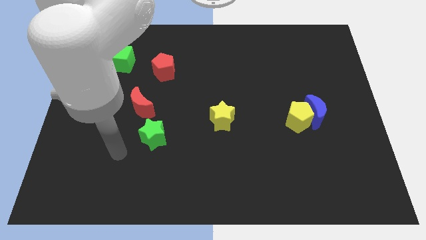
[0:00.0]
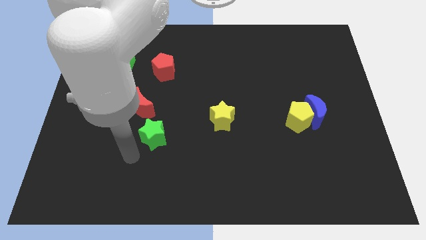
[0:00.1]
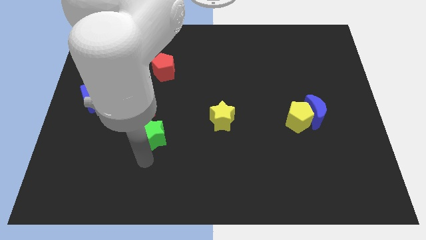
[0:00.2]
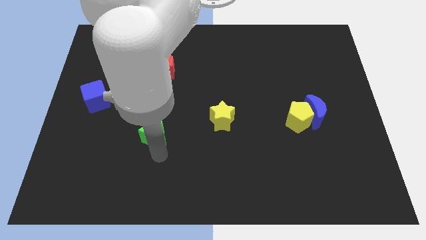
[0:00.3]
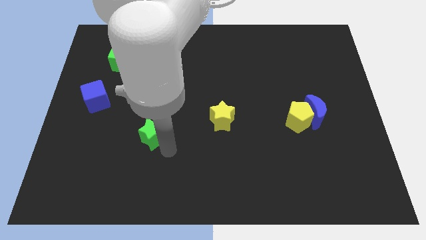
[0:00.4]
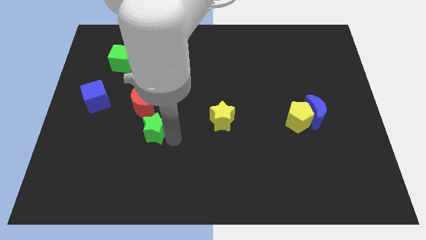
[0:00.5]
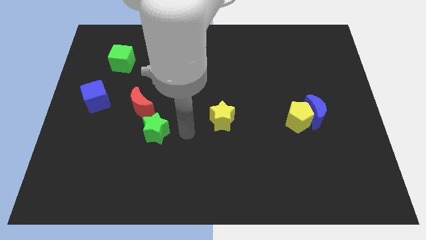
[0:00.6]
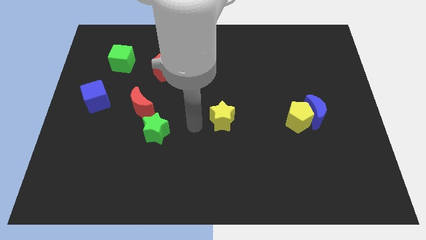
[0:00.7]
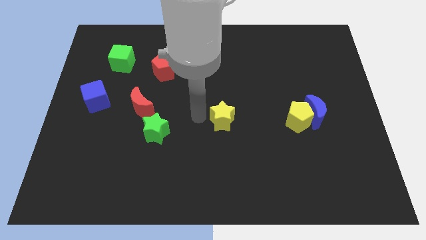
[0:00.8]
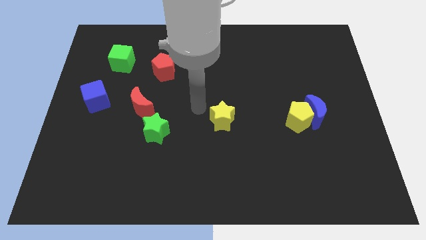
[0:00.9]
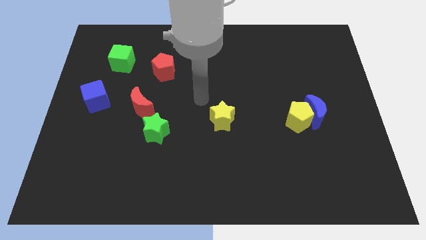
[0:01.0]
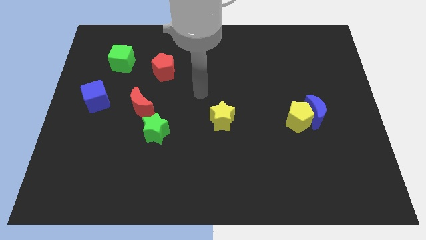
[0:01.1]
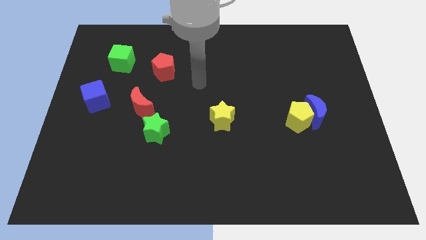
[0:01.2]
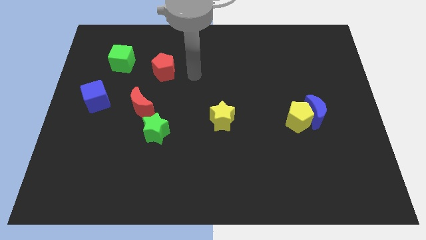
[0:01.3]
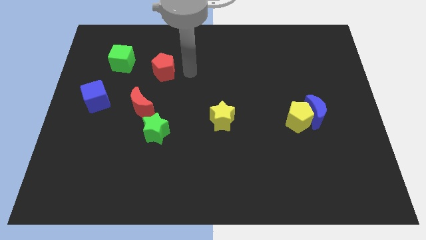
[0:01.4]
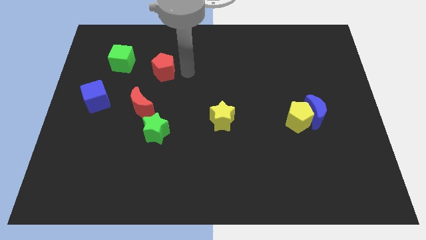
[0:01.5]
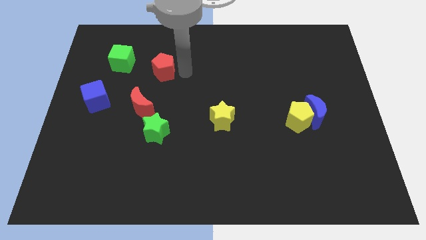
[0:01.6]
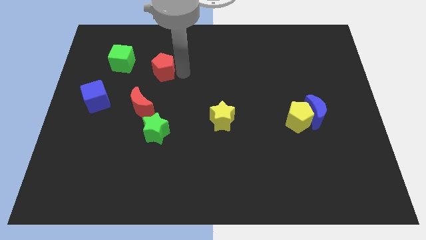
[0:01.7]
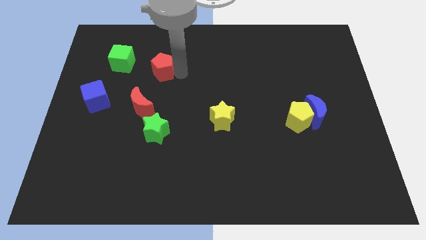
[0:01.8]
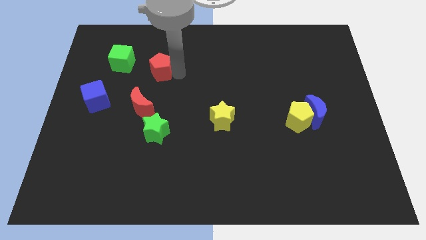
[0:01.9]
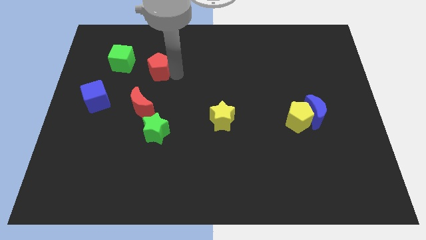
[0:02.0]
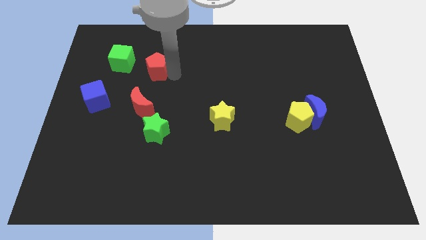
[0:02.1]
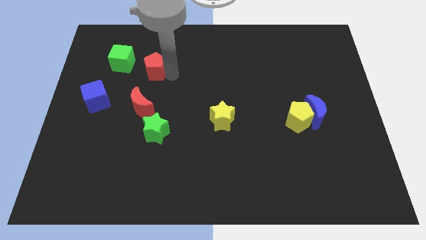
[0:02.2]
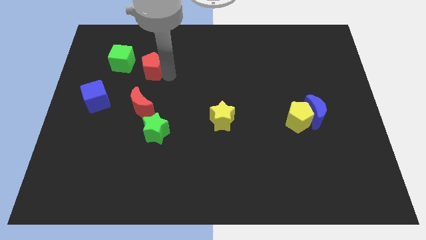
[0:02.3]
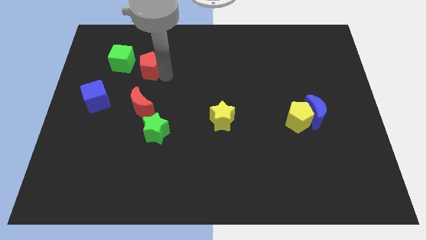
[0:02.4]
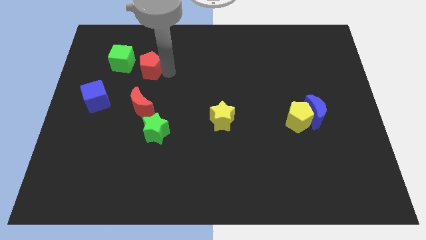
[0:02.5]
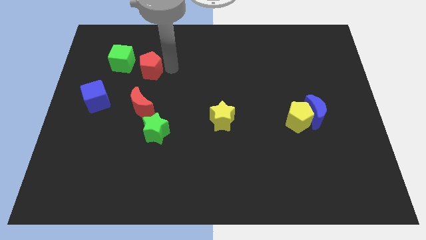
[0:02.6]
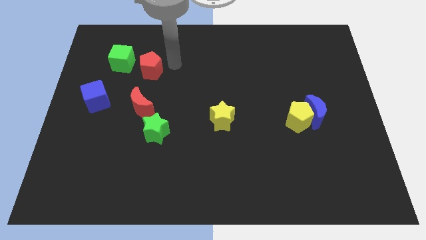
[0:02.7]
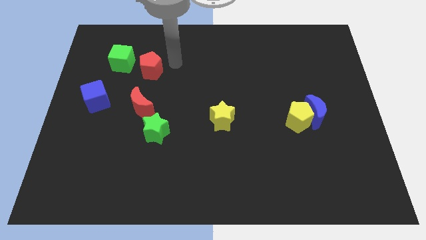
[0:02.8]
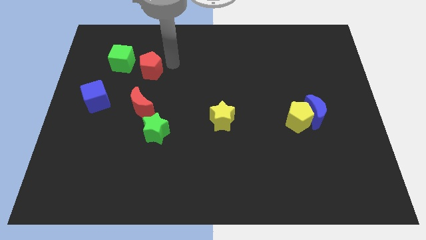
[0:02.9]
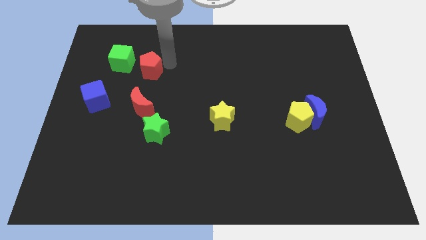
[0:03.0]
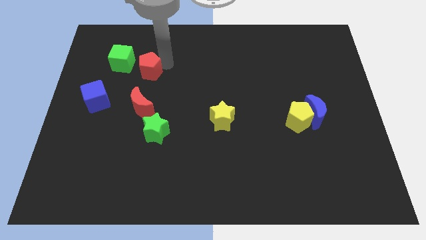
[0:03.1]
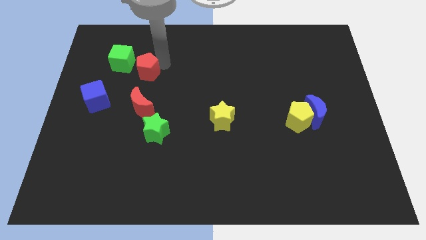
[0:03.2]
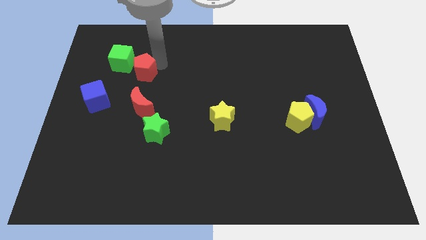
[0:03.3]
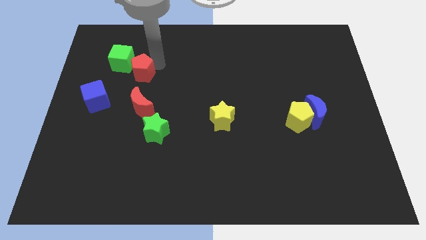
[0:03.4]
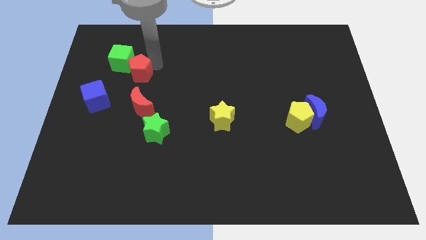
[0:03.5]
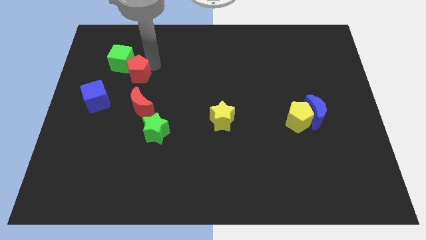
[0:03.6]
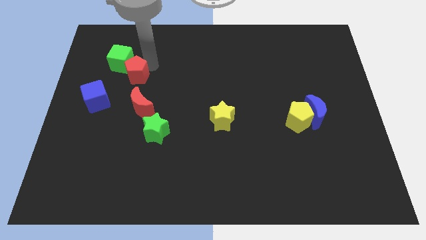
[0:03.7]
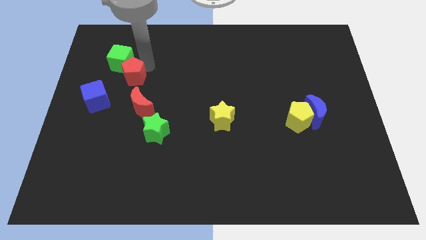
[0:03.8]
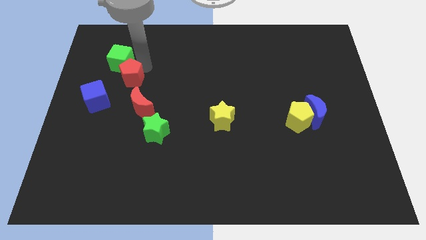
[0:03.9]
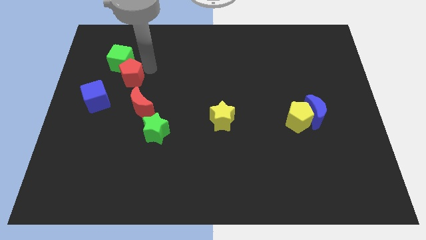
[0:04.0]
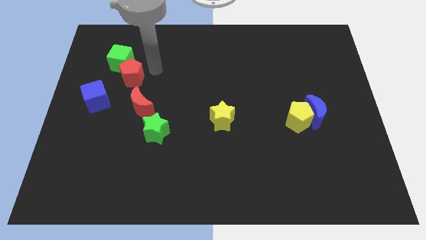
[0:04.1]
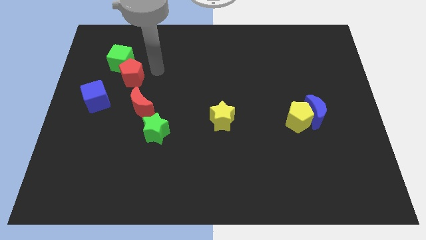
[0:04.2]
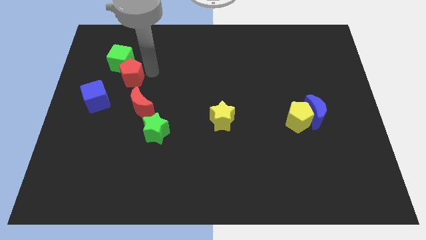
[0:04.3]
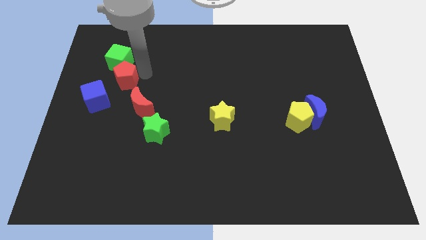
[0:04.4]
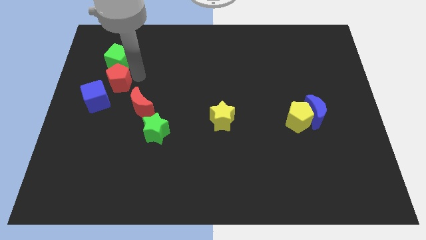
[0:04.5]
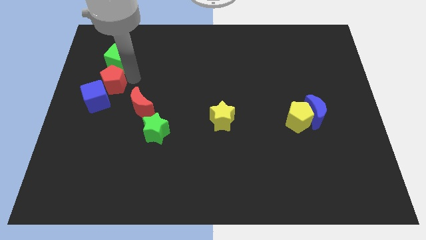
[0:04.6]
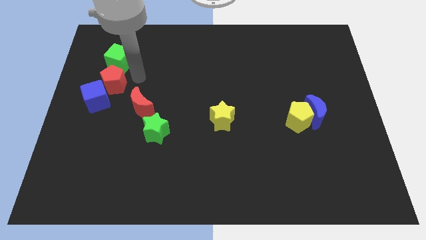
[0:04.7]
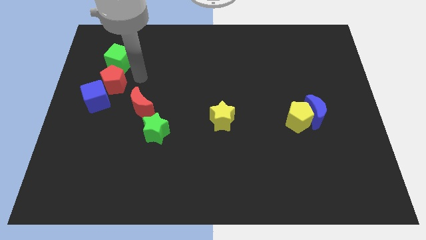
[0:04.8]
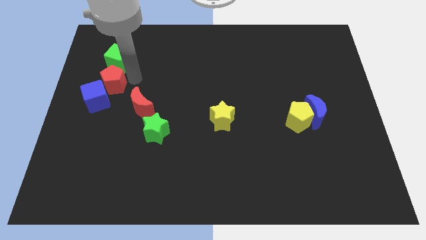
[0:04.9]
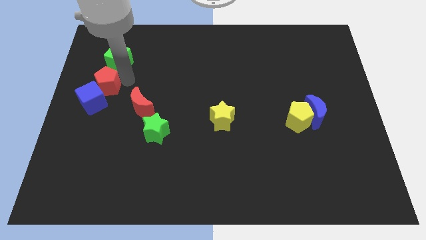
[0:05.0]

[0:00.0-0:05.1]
move the red pentagon to the center left

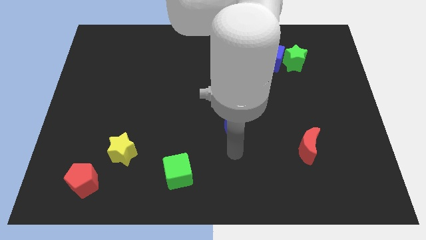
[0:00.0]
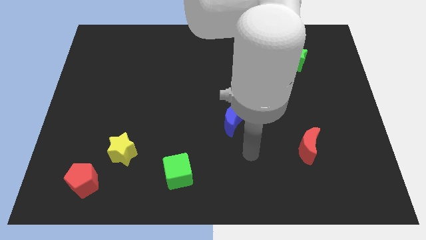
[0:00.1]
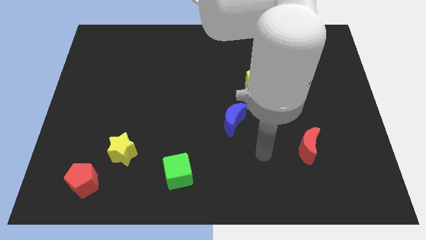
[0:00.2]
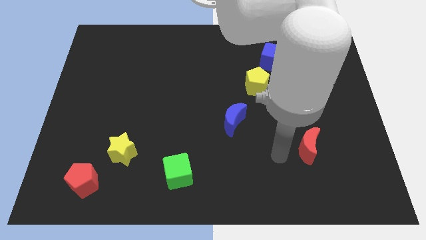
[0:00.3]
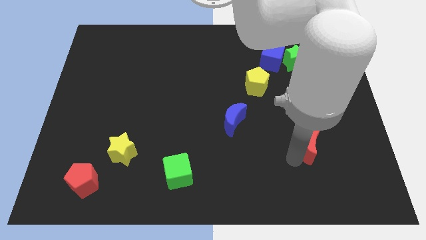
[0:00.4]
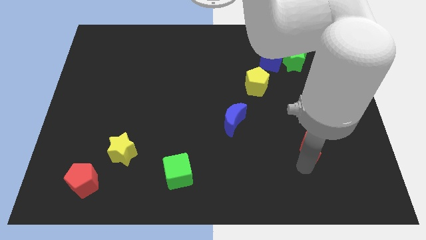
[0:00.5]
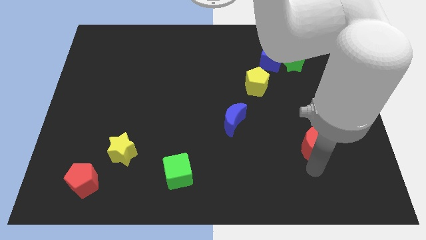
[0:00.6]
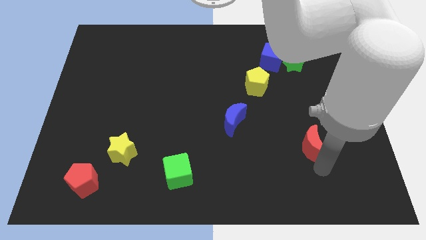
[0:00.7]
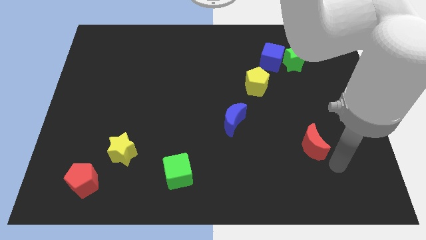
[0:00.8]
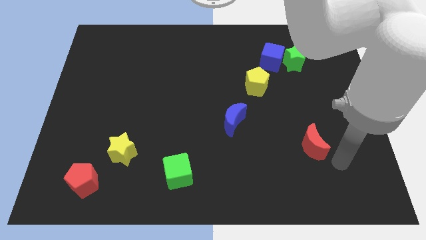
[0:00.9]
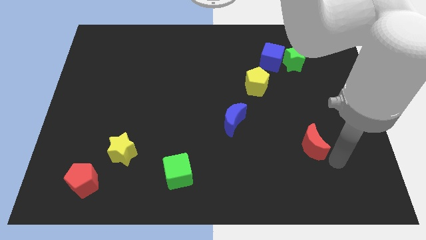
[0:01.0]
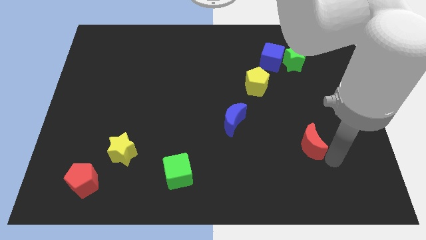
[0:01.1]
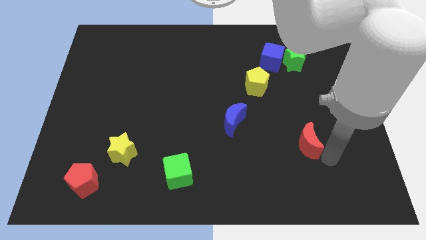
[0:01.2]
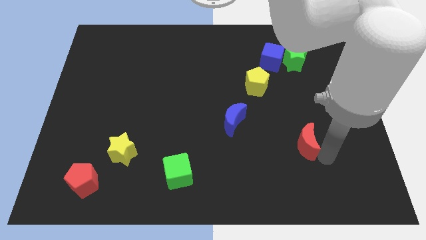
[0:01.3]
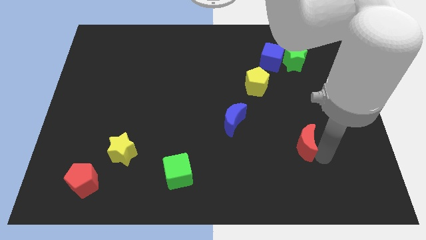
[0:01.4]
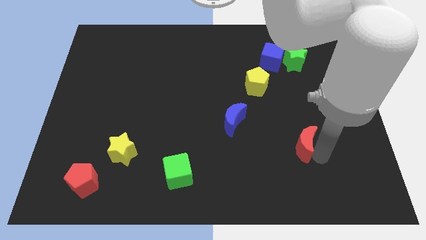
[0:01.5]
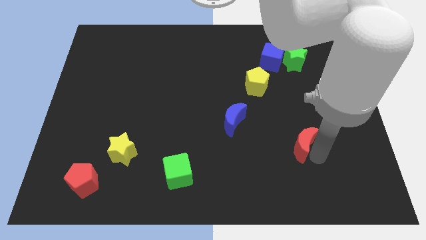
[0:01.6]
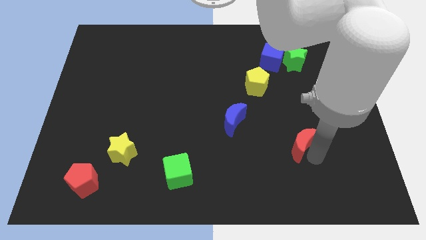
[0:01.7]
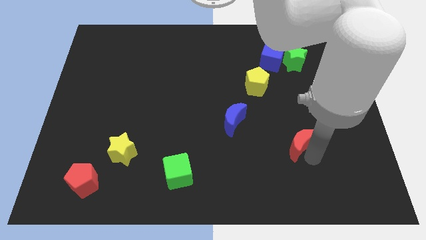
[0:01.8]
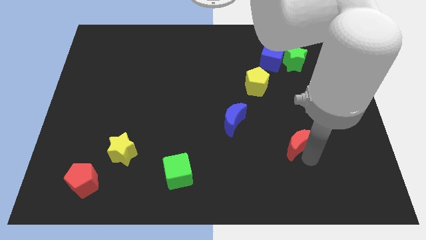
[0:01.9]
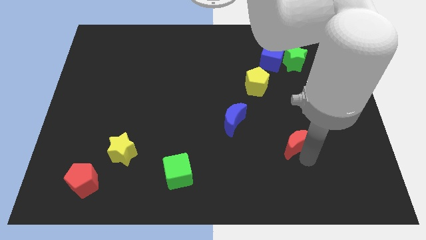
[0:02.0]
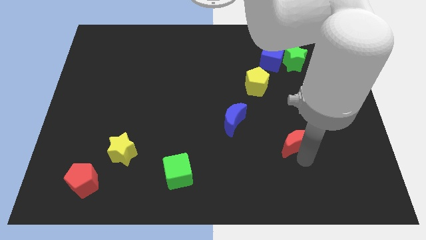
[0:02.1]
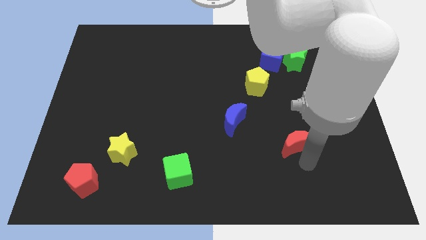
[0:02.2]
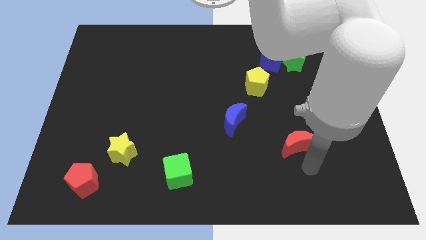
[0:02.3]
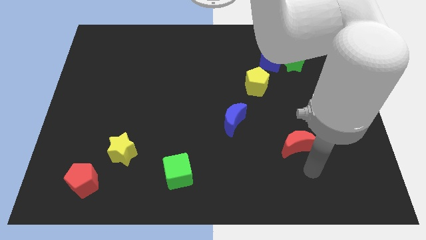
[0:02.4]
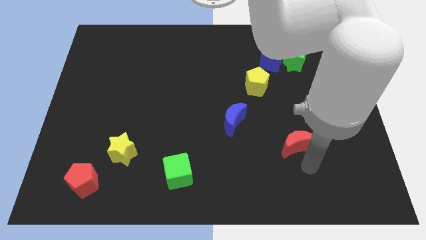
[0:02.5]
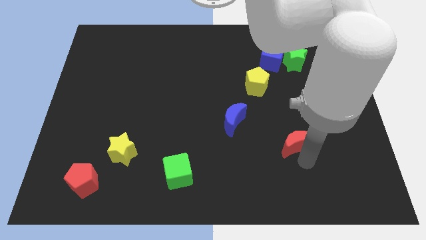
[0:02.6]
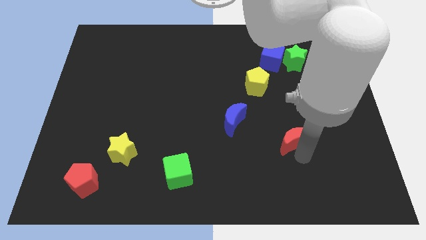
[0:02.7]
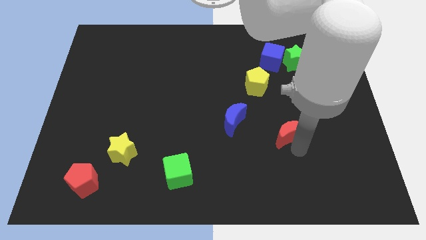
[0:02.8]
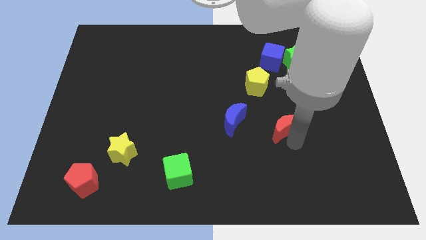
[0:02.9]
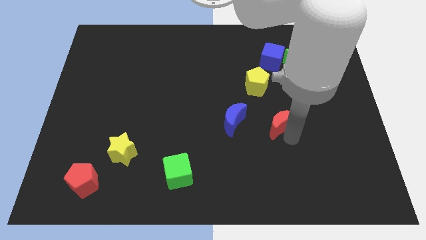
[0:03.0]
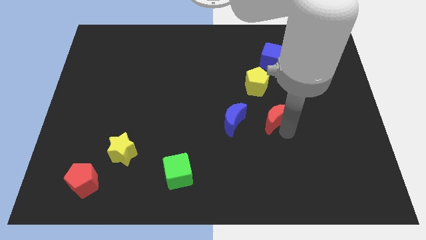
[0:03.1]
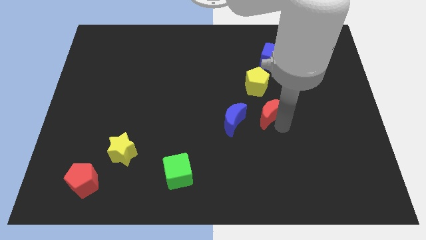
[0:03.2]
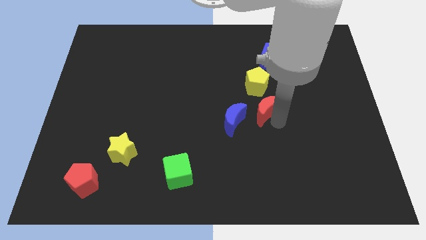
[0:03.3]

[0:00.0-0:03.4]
move the red moon to the middle of the board
